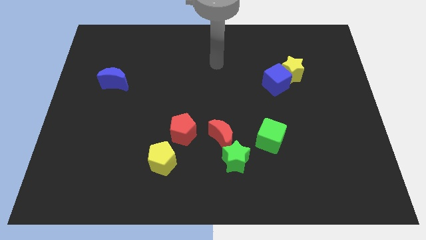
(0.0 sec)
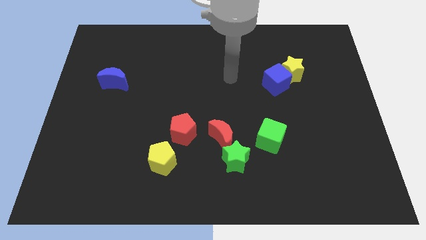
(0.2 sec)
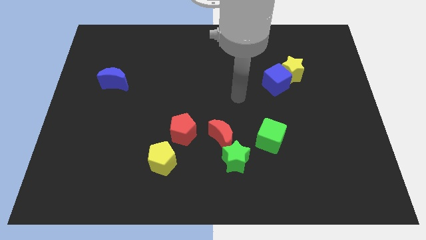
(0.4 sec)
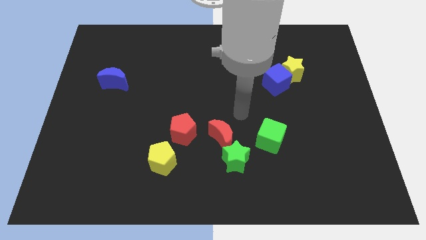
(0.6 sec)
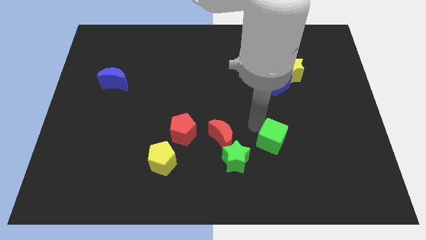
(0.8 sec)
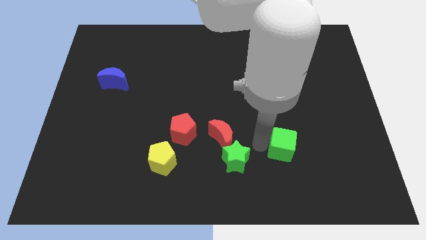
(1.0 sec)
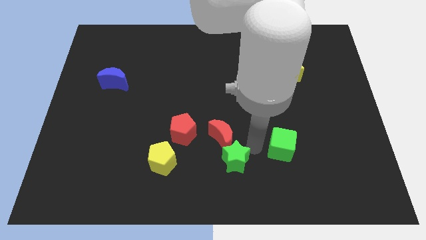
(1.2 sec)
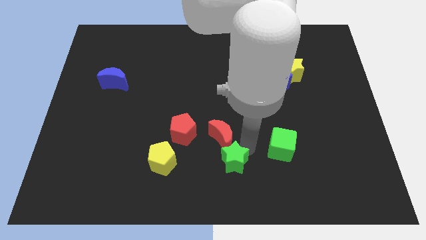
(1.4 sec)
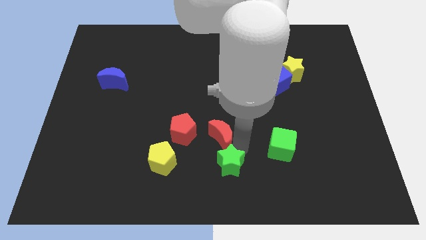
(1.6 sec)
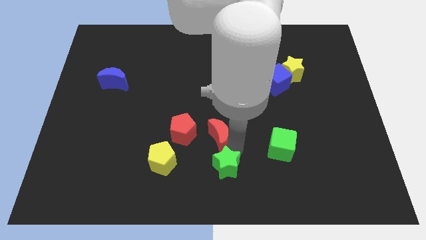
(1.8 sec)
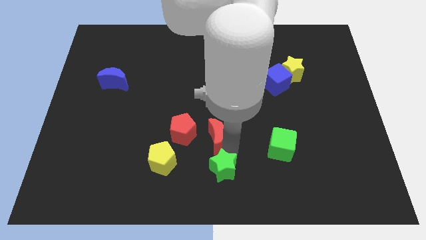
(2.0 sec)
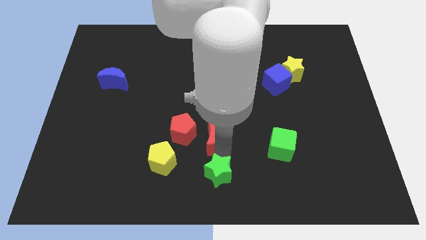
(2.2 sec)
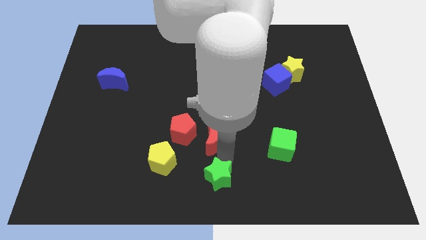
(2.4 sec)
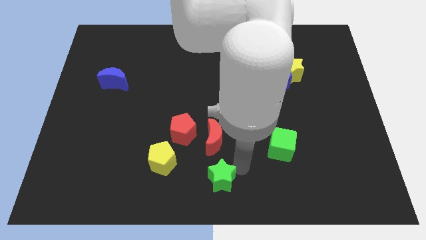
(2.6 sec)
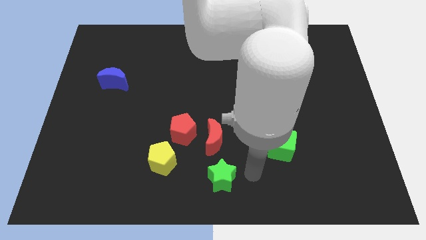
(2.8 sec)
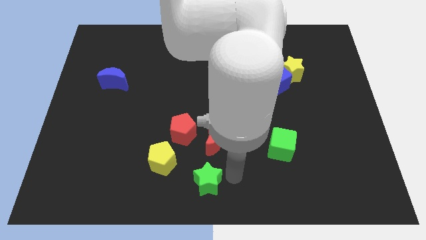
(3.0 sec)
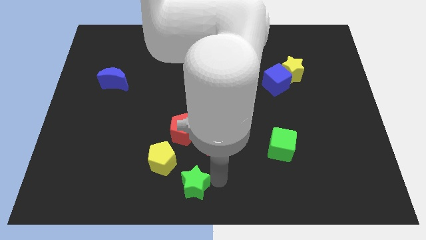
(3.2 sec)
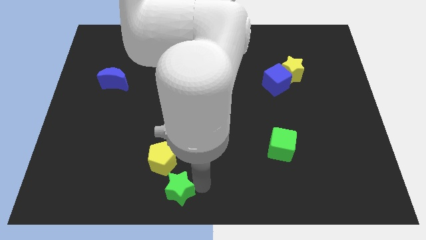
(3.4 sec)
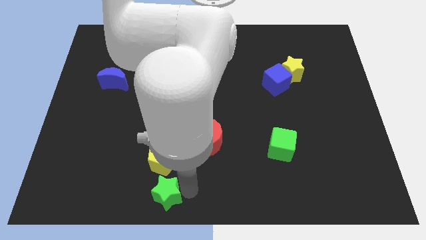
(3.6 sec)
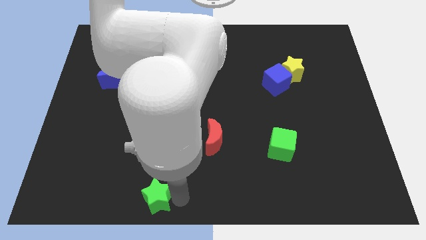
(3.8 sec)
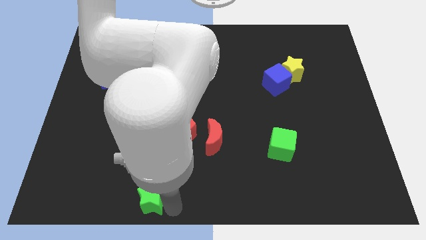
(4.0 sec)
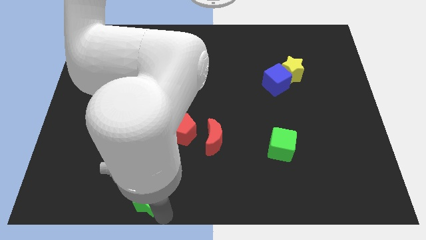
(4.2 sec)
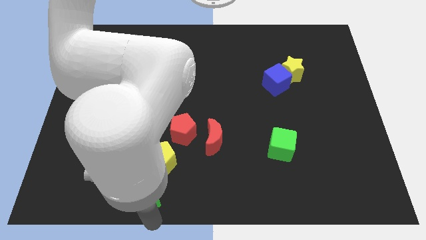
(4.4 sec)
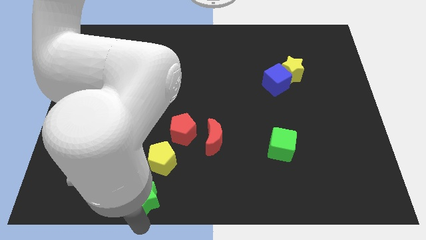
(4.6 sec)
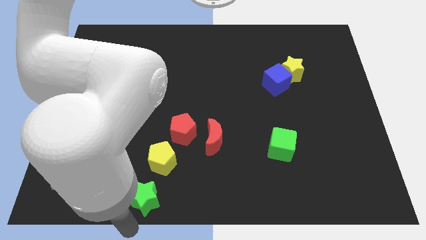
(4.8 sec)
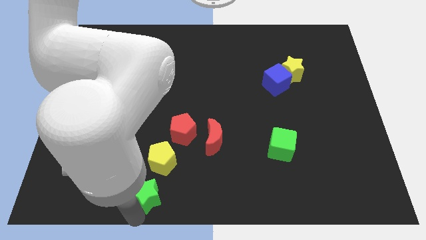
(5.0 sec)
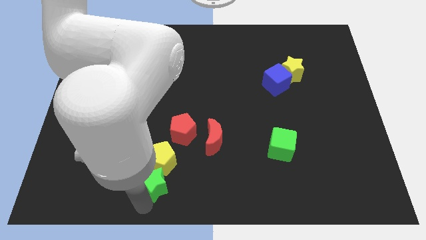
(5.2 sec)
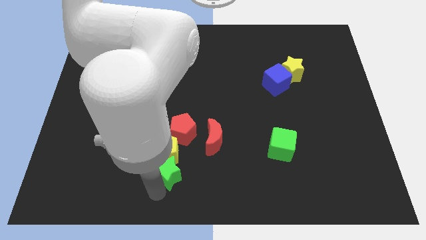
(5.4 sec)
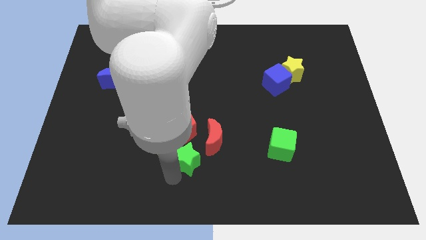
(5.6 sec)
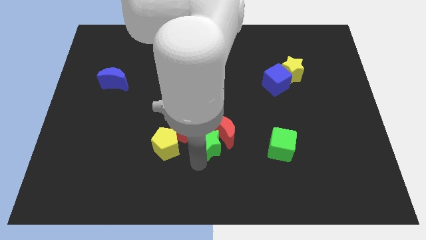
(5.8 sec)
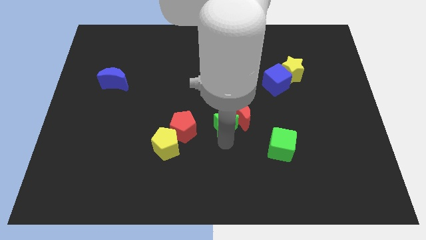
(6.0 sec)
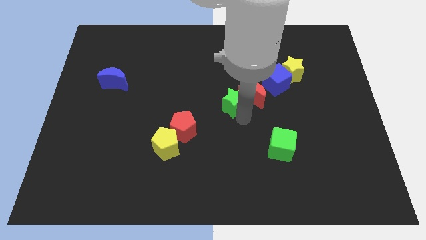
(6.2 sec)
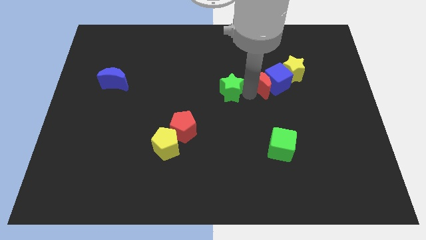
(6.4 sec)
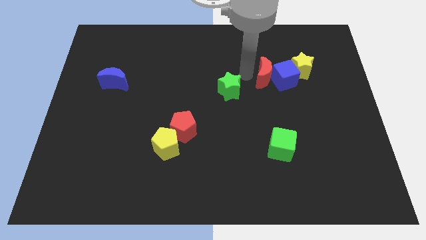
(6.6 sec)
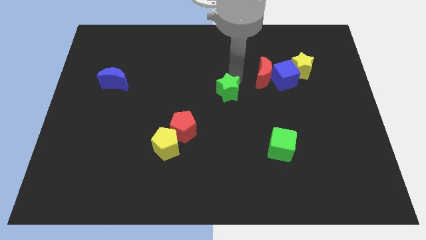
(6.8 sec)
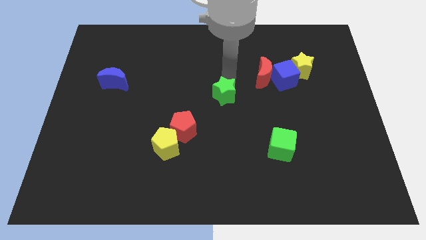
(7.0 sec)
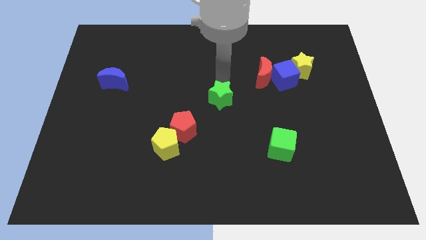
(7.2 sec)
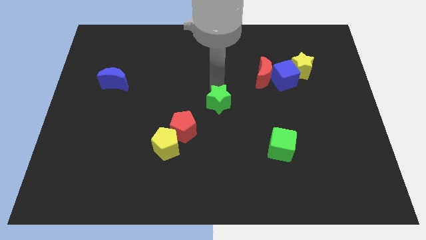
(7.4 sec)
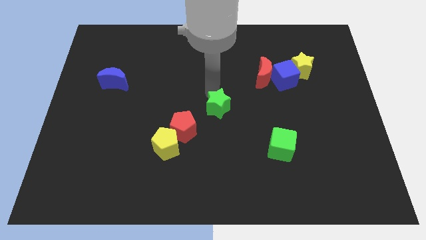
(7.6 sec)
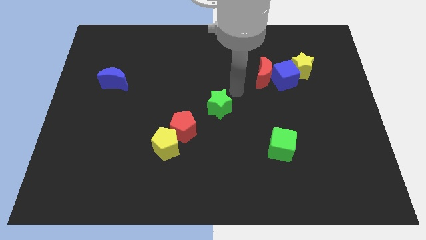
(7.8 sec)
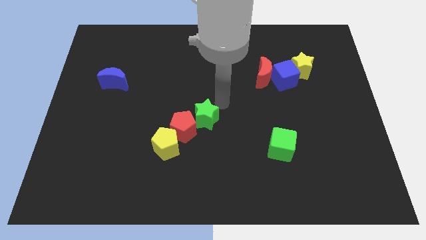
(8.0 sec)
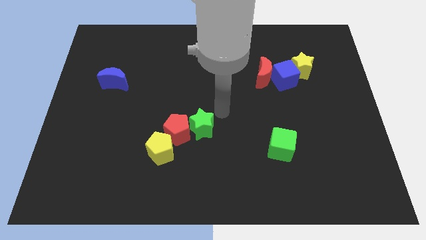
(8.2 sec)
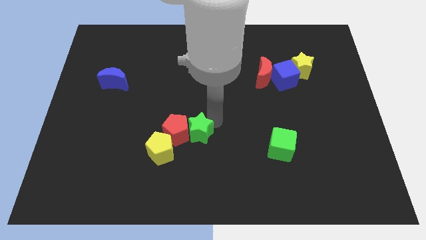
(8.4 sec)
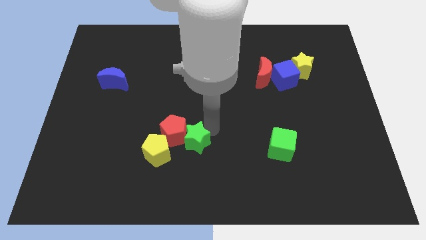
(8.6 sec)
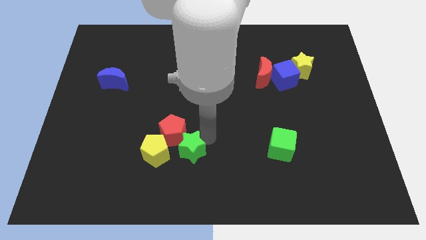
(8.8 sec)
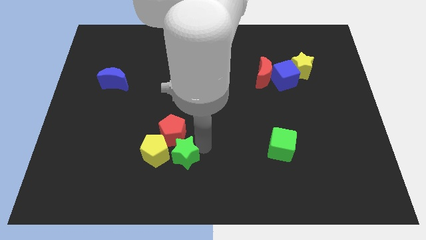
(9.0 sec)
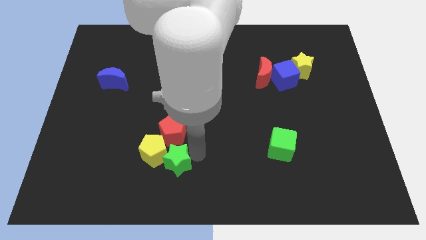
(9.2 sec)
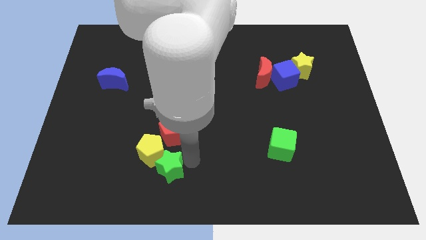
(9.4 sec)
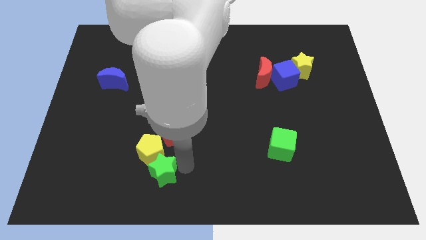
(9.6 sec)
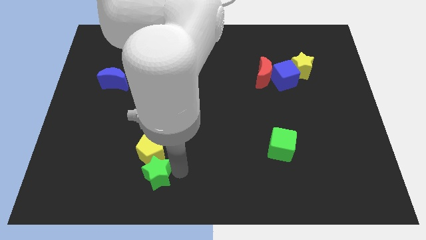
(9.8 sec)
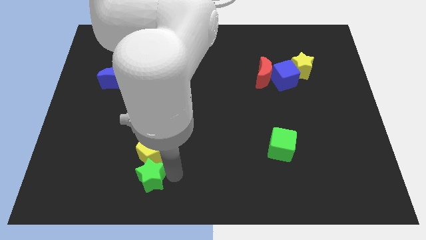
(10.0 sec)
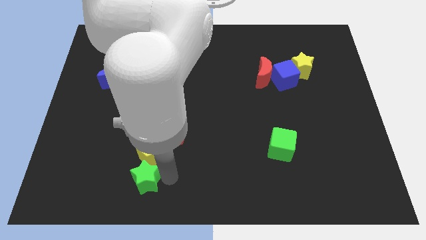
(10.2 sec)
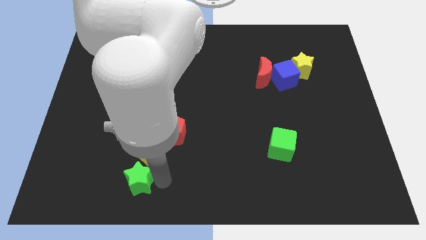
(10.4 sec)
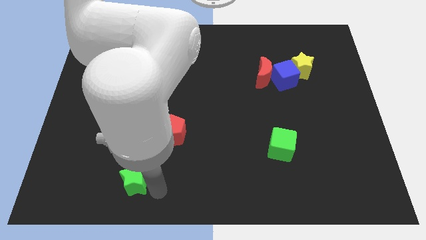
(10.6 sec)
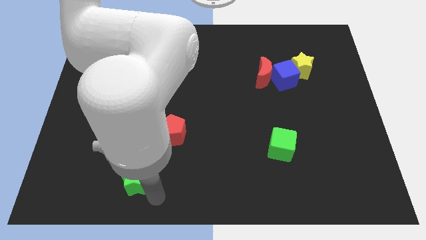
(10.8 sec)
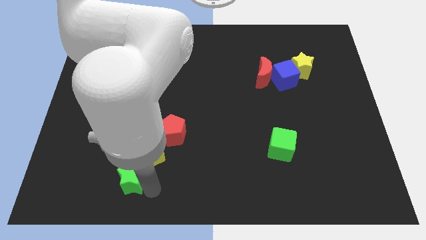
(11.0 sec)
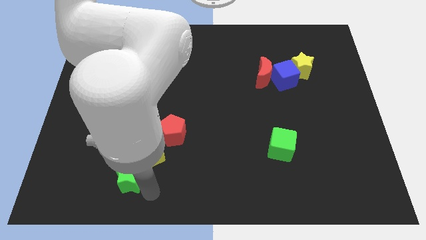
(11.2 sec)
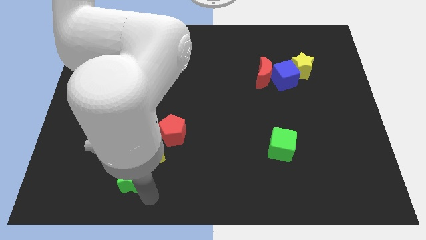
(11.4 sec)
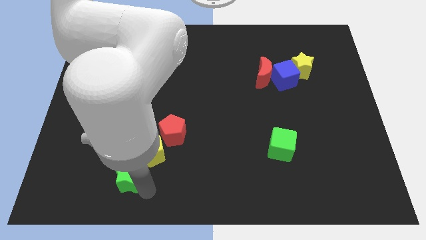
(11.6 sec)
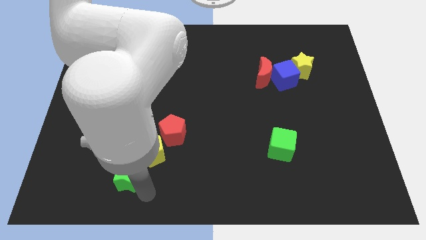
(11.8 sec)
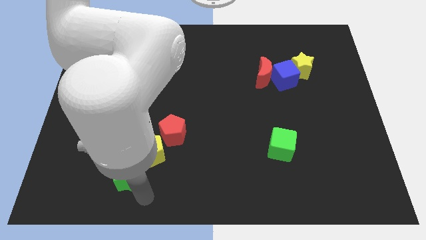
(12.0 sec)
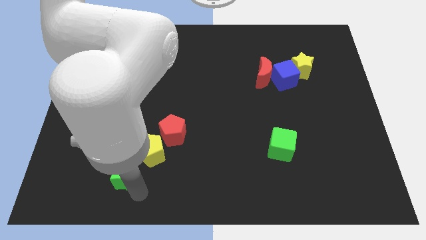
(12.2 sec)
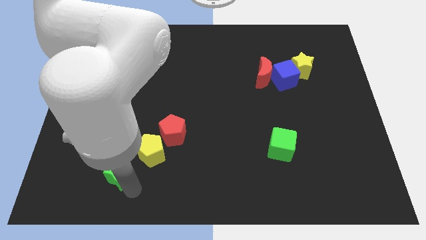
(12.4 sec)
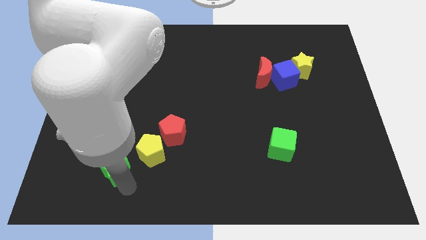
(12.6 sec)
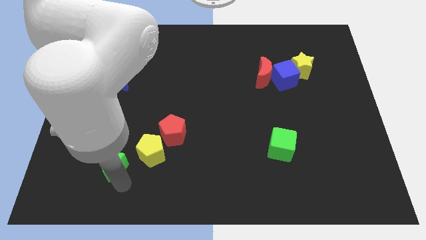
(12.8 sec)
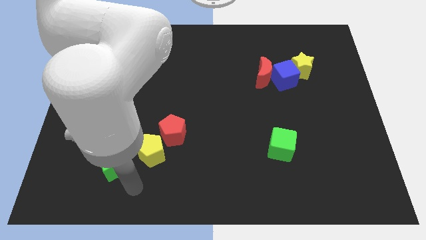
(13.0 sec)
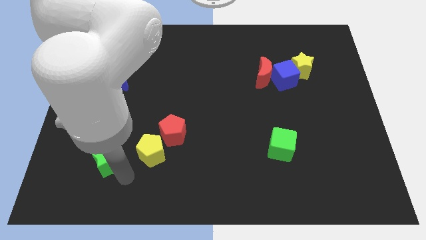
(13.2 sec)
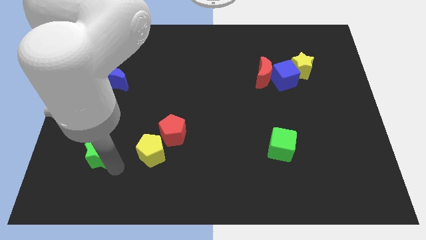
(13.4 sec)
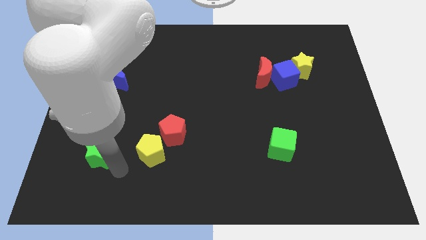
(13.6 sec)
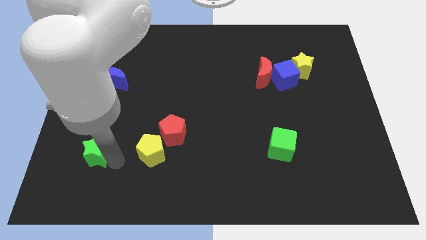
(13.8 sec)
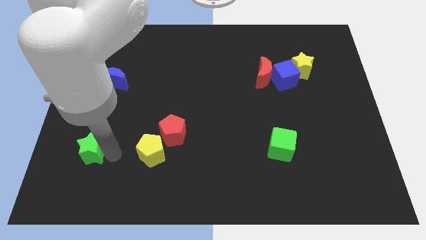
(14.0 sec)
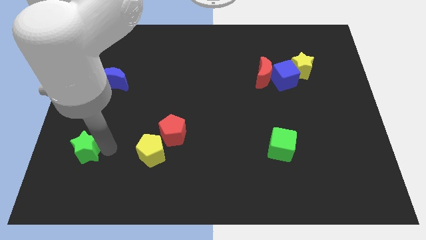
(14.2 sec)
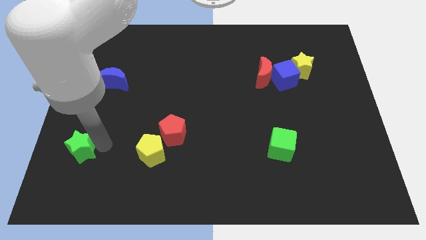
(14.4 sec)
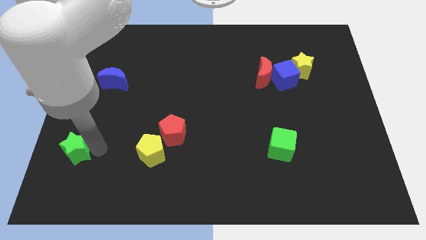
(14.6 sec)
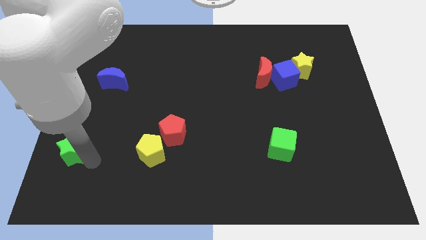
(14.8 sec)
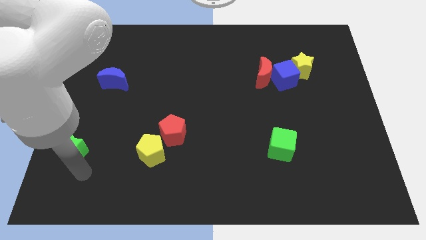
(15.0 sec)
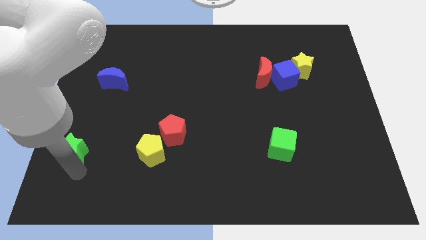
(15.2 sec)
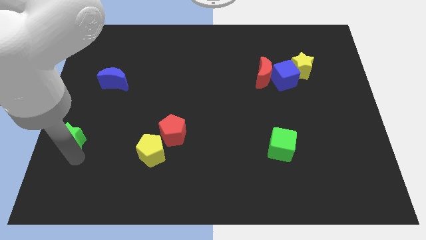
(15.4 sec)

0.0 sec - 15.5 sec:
move the green star to the left side
